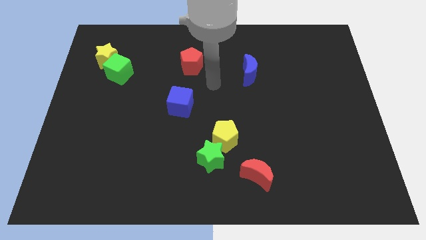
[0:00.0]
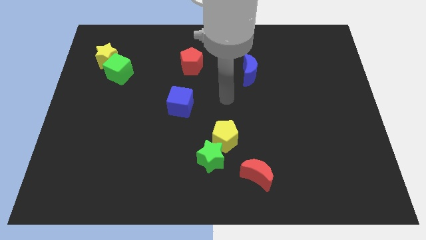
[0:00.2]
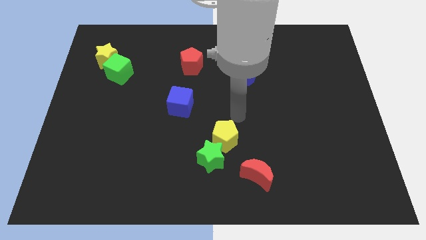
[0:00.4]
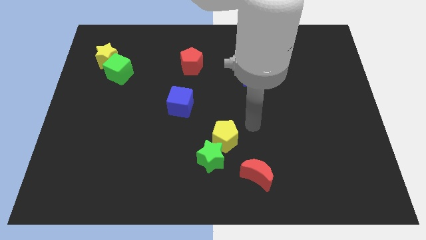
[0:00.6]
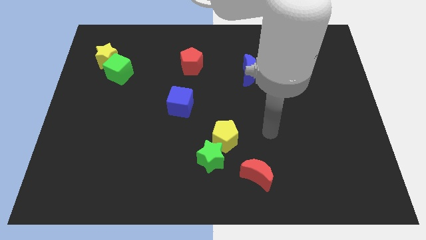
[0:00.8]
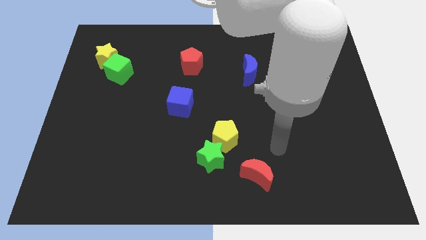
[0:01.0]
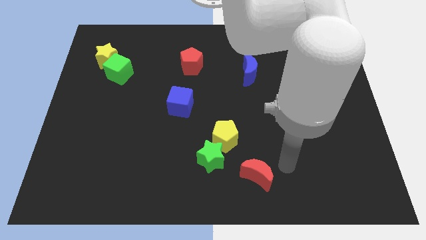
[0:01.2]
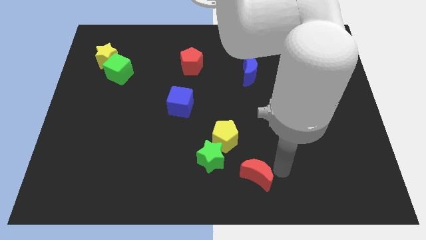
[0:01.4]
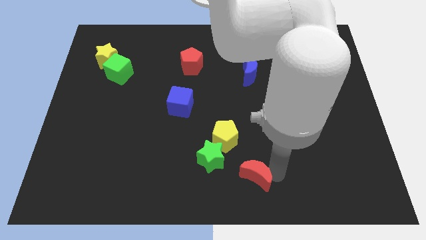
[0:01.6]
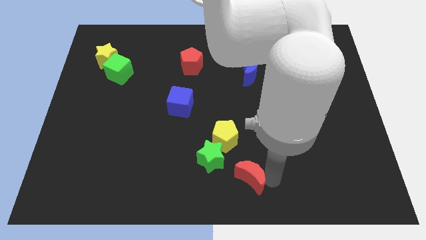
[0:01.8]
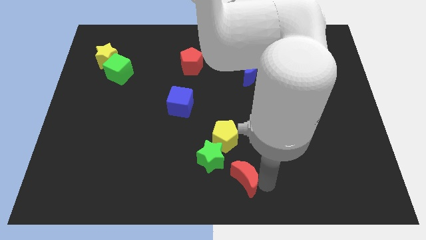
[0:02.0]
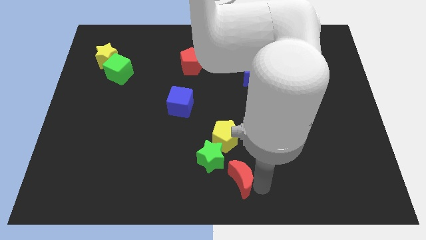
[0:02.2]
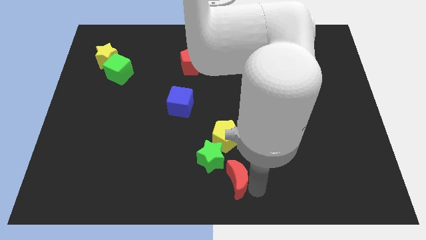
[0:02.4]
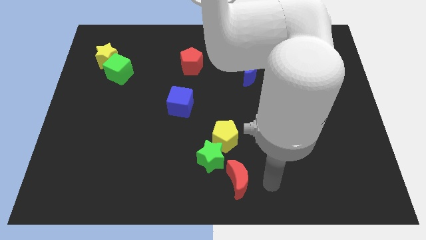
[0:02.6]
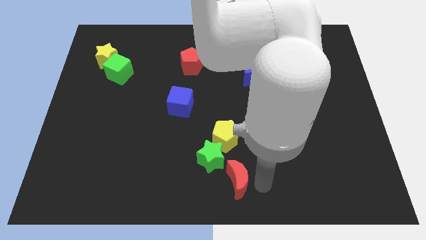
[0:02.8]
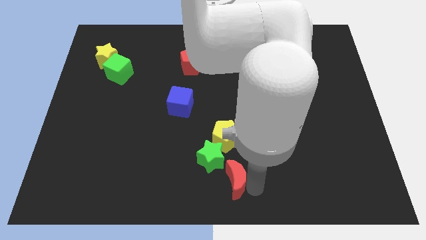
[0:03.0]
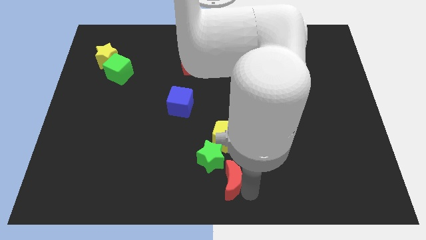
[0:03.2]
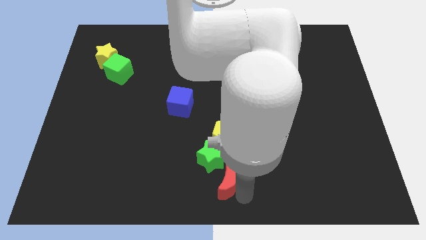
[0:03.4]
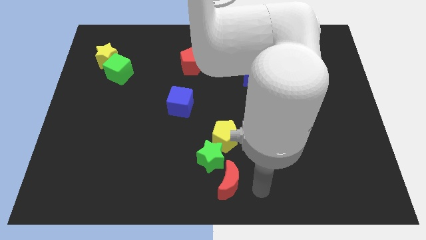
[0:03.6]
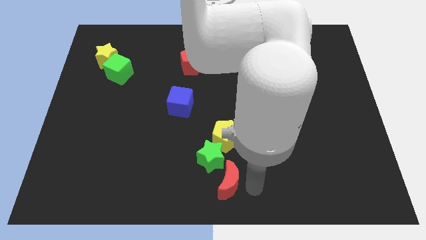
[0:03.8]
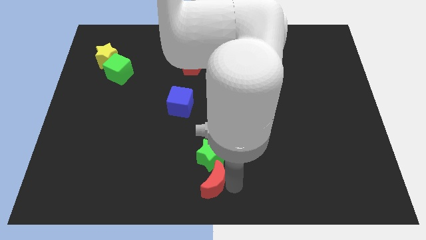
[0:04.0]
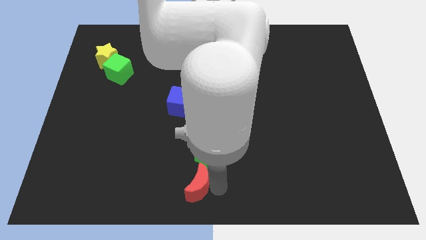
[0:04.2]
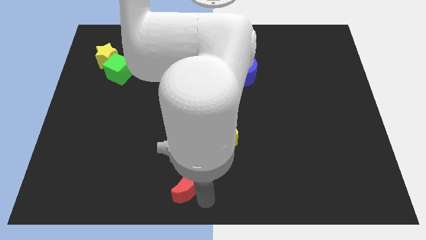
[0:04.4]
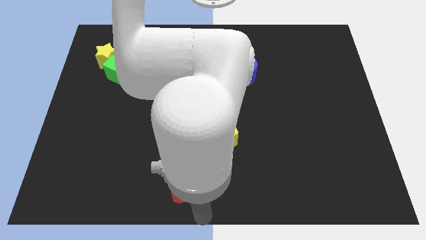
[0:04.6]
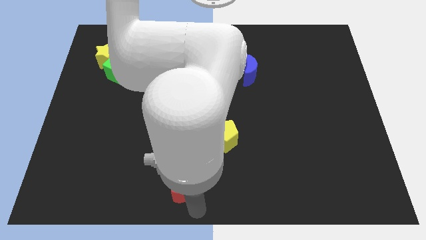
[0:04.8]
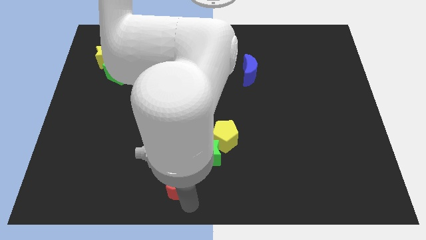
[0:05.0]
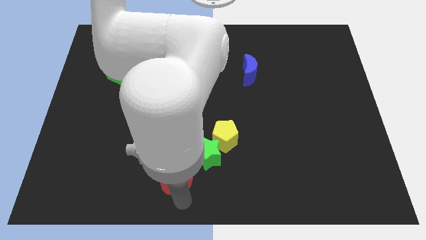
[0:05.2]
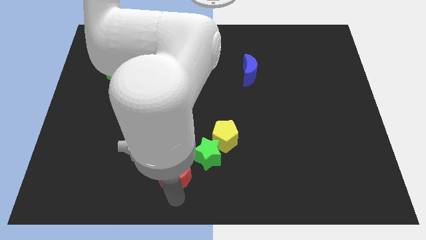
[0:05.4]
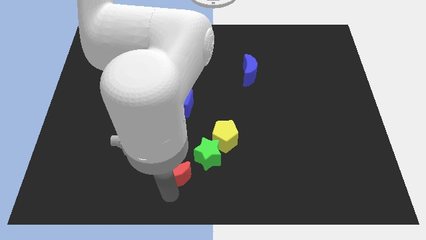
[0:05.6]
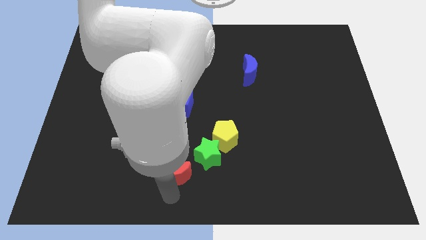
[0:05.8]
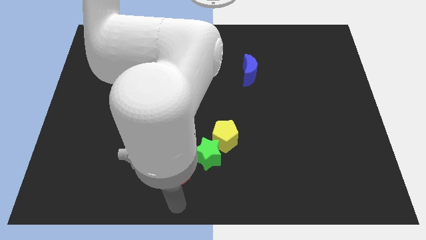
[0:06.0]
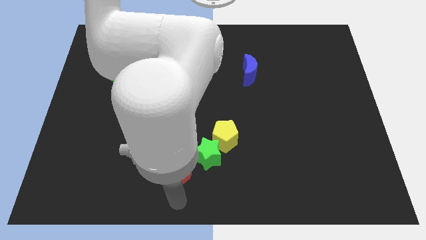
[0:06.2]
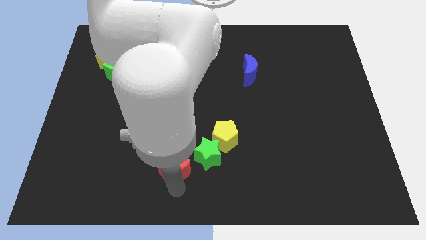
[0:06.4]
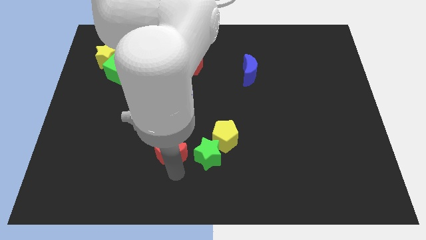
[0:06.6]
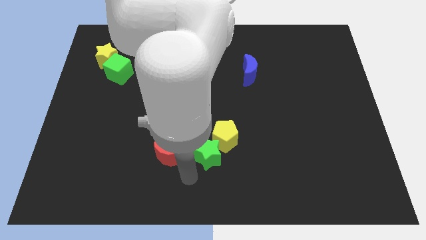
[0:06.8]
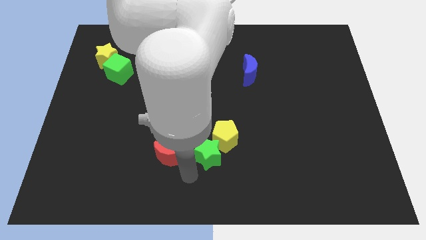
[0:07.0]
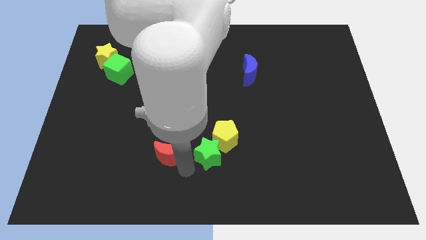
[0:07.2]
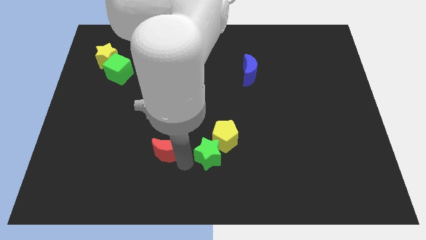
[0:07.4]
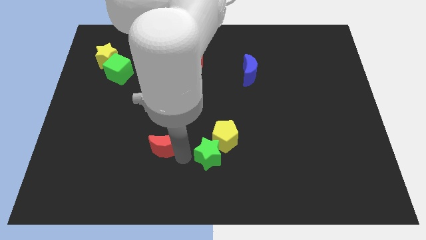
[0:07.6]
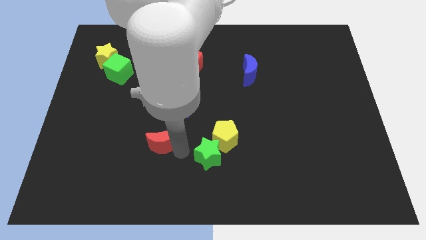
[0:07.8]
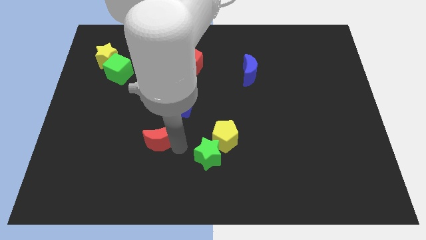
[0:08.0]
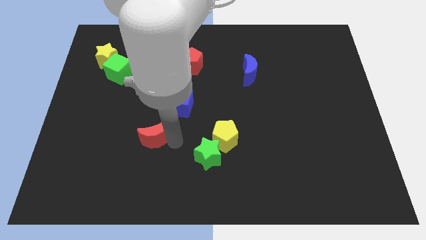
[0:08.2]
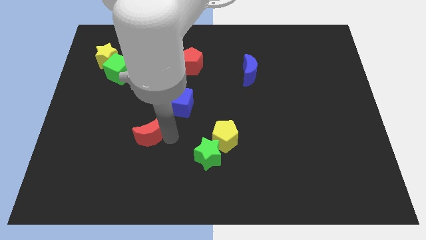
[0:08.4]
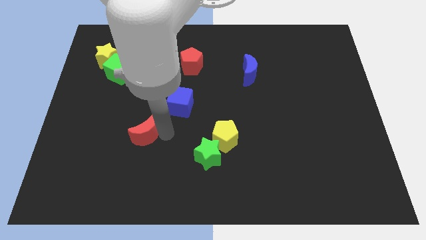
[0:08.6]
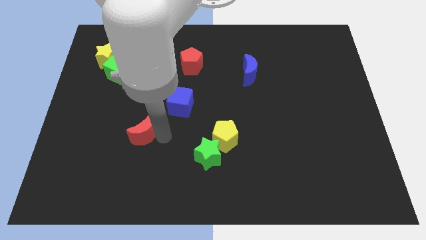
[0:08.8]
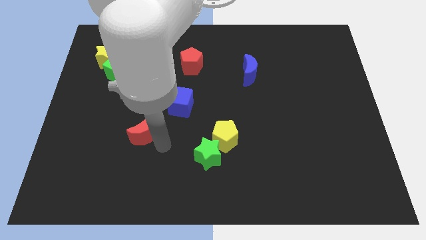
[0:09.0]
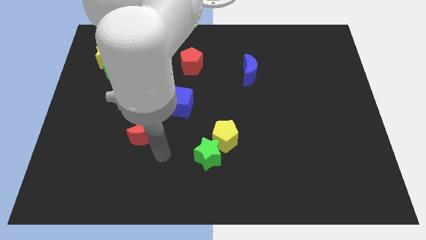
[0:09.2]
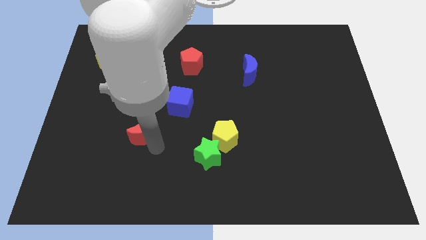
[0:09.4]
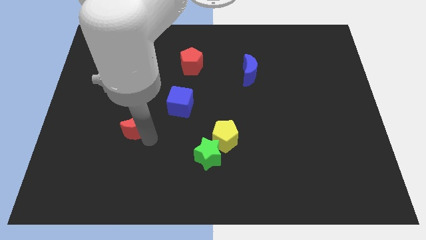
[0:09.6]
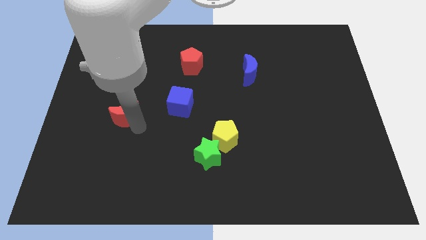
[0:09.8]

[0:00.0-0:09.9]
put the red moon to the bottom of the green cube

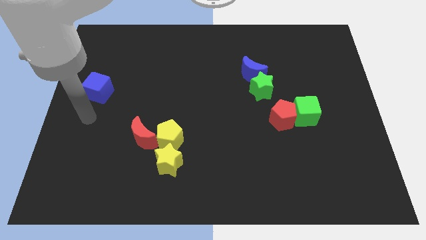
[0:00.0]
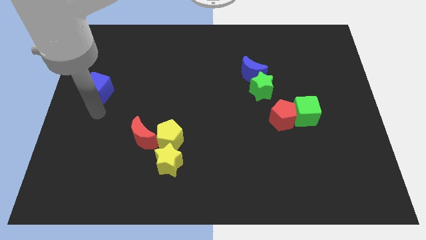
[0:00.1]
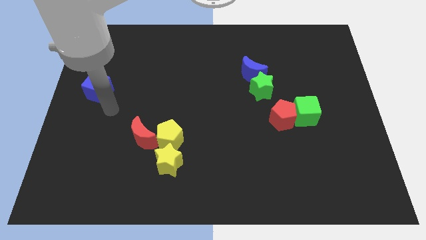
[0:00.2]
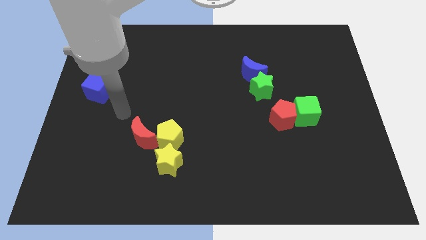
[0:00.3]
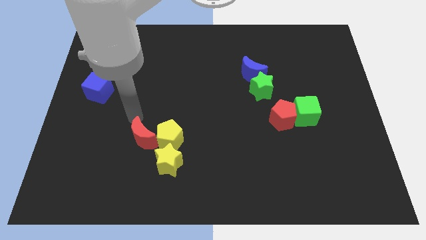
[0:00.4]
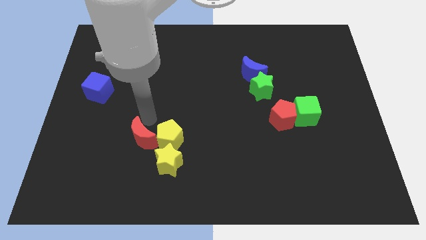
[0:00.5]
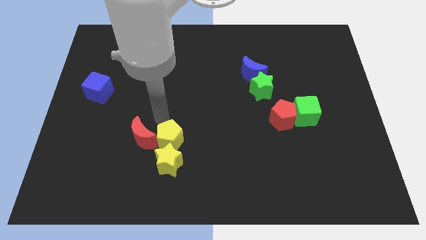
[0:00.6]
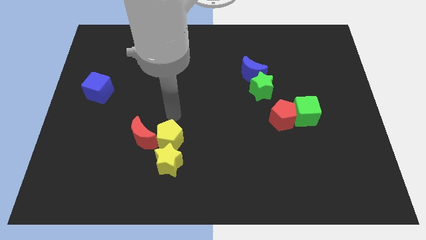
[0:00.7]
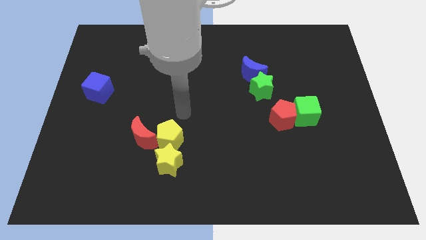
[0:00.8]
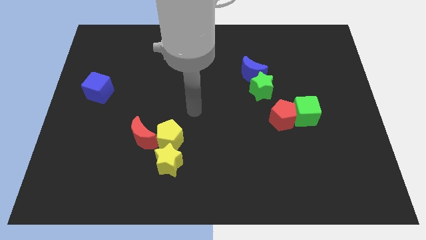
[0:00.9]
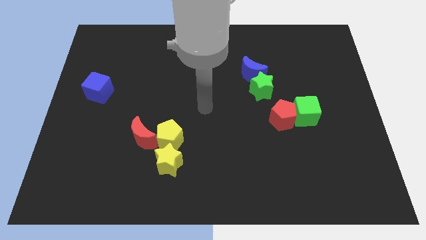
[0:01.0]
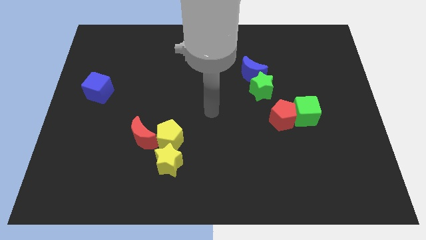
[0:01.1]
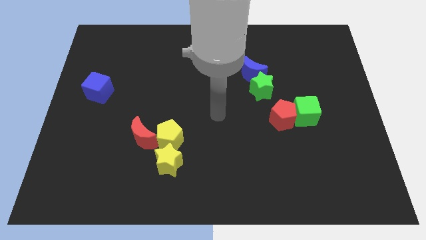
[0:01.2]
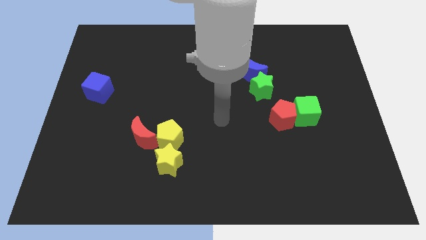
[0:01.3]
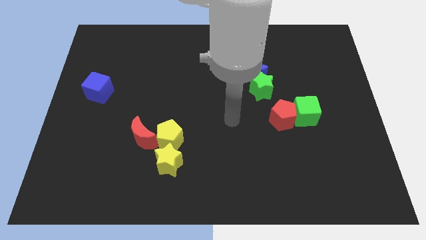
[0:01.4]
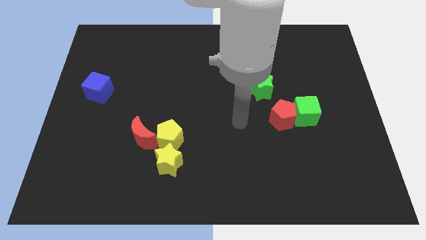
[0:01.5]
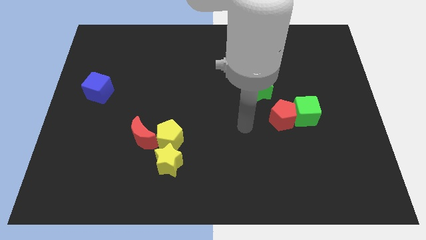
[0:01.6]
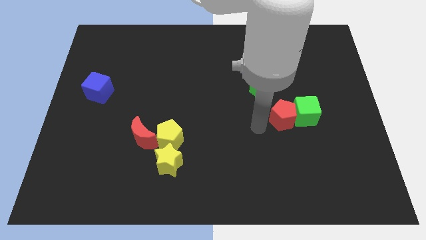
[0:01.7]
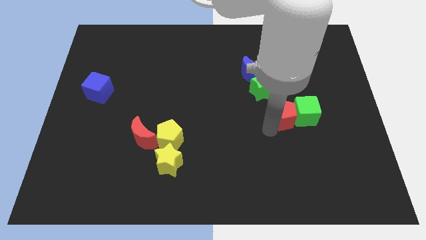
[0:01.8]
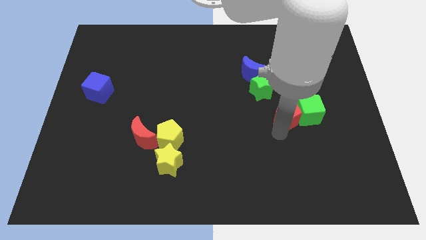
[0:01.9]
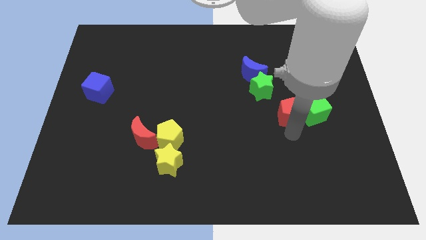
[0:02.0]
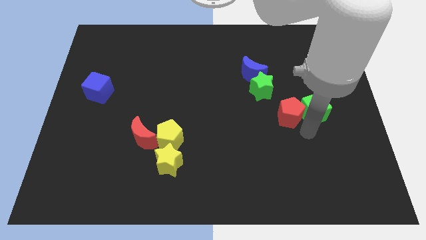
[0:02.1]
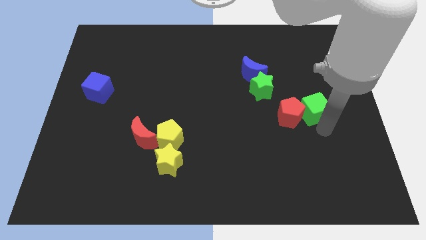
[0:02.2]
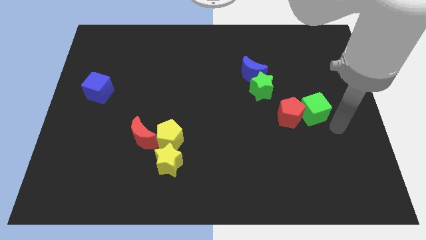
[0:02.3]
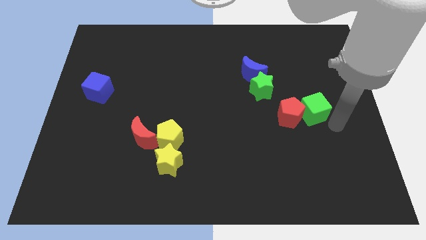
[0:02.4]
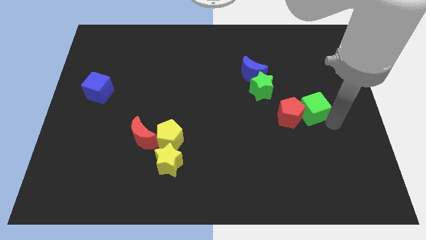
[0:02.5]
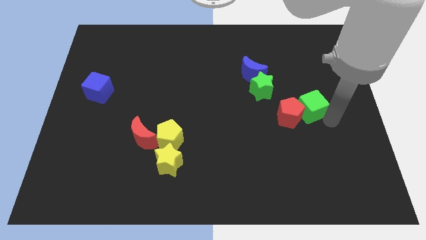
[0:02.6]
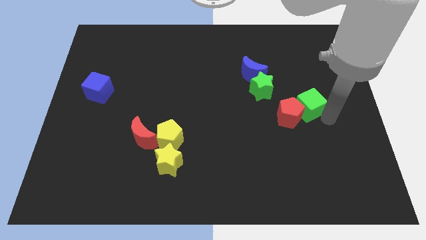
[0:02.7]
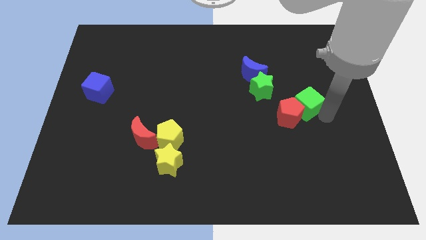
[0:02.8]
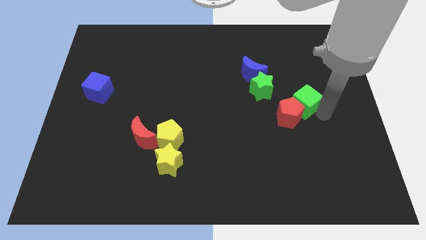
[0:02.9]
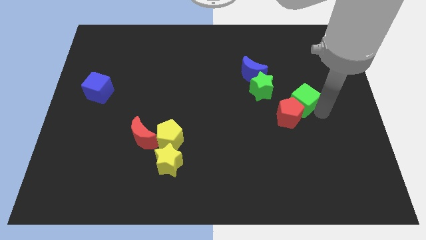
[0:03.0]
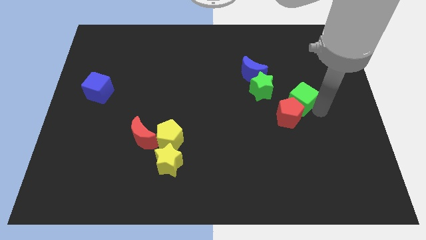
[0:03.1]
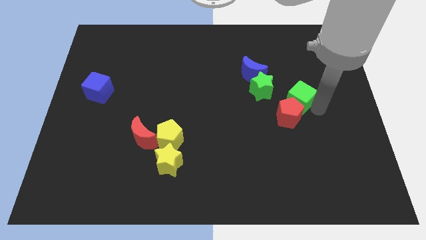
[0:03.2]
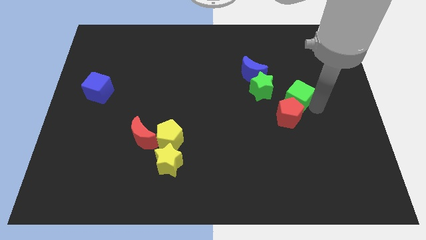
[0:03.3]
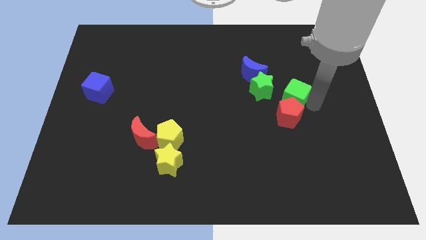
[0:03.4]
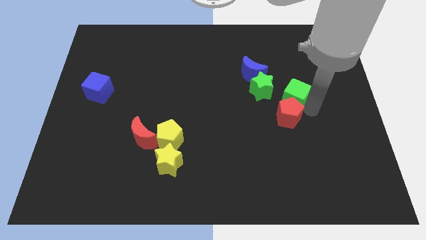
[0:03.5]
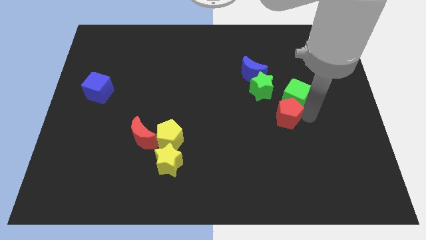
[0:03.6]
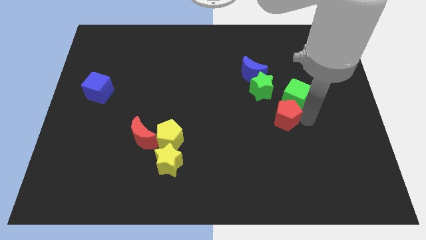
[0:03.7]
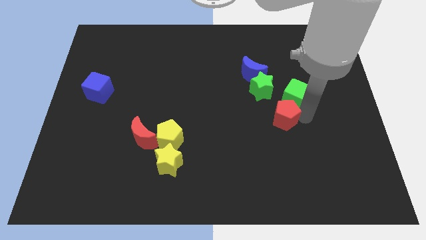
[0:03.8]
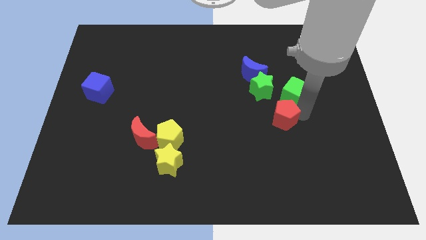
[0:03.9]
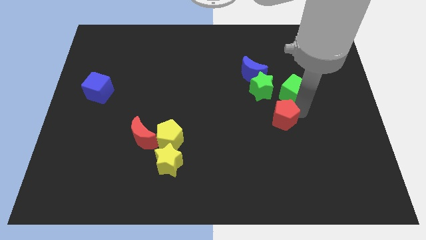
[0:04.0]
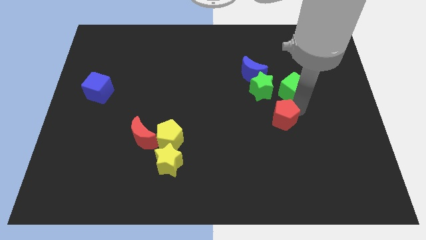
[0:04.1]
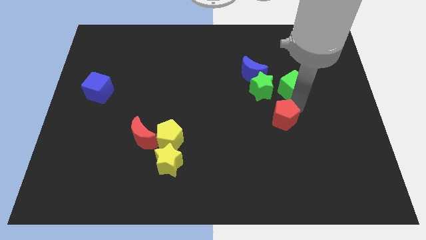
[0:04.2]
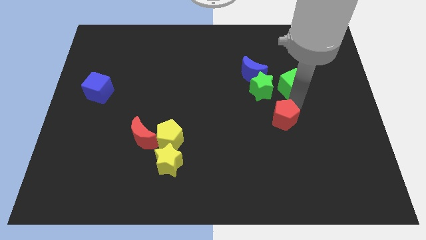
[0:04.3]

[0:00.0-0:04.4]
put the green cube to the top right of the green star
